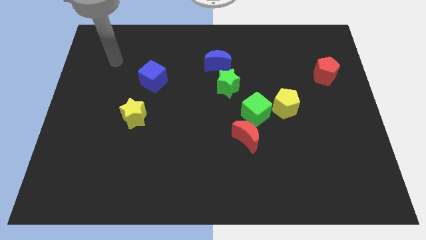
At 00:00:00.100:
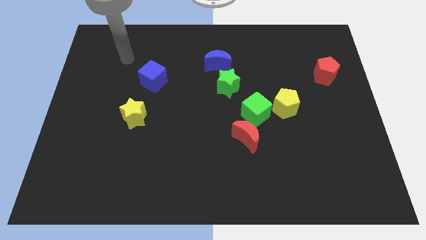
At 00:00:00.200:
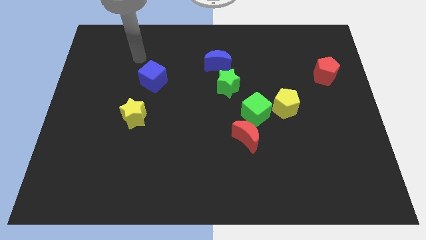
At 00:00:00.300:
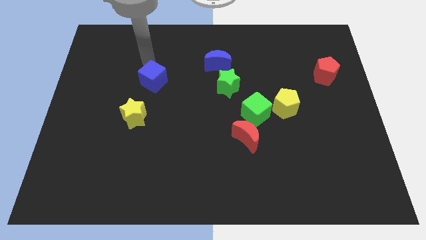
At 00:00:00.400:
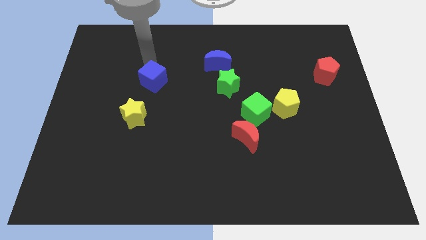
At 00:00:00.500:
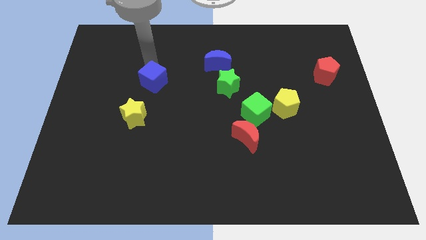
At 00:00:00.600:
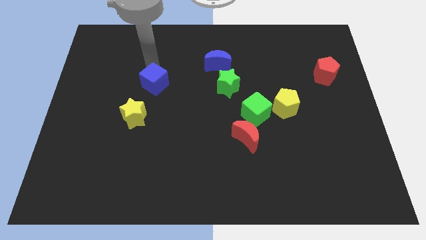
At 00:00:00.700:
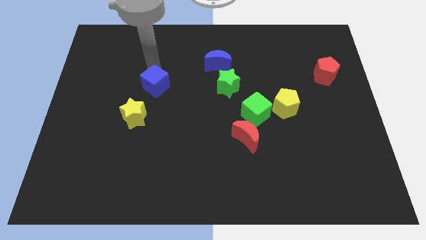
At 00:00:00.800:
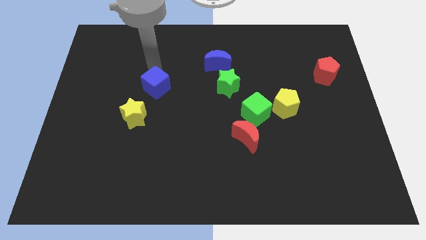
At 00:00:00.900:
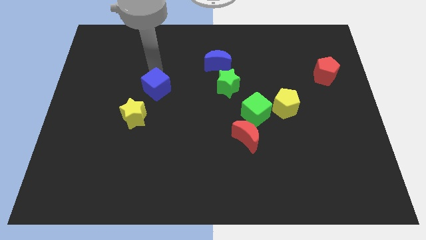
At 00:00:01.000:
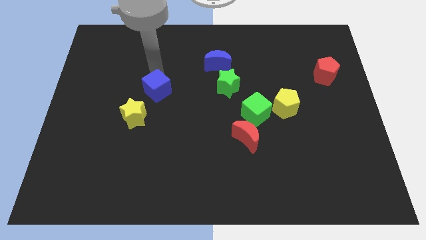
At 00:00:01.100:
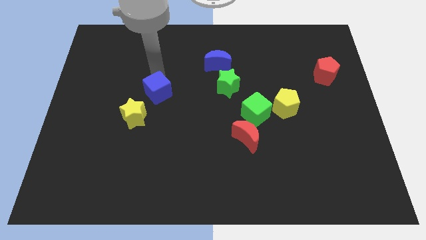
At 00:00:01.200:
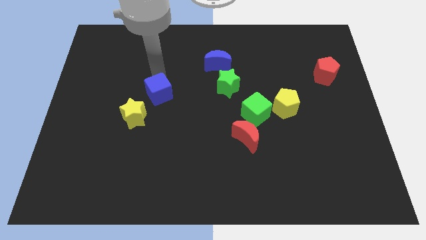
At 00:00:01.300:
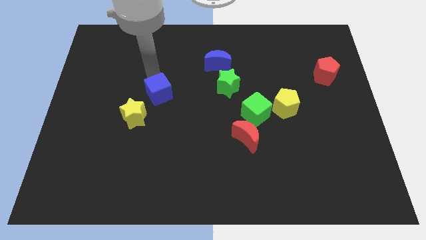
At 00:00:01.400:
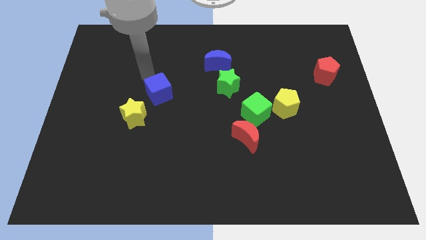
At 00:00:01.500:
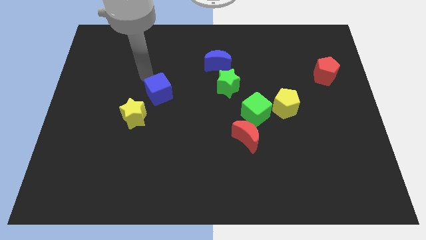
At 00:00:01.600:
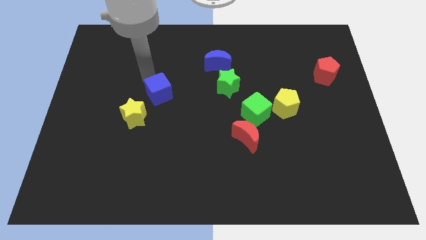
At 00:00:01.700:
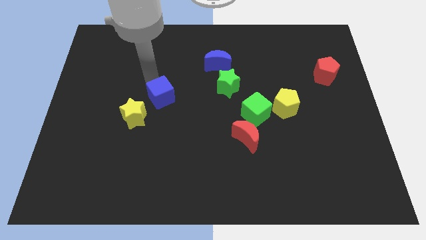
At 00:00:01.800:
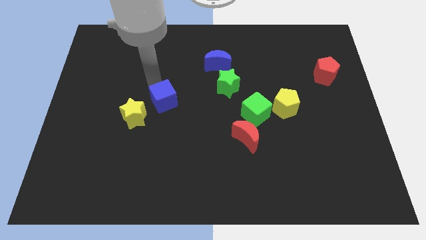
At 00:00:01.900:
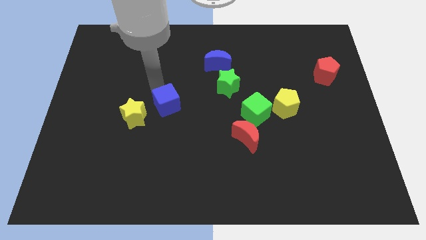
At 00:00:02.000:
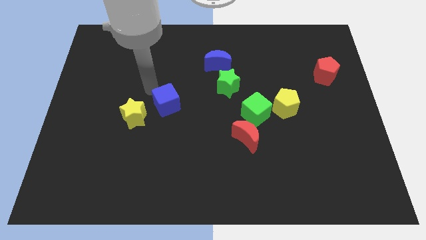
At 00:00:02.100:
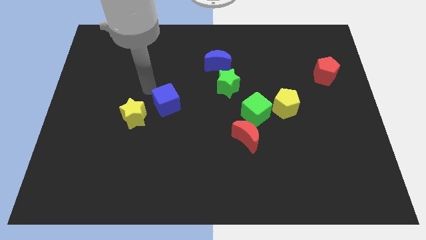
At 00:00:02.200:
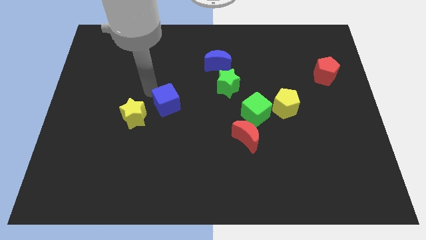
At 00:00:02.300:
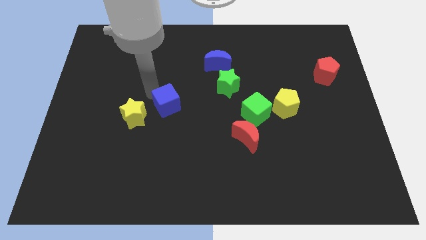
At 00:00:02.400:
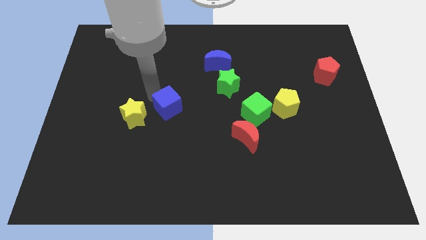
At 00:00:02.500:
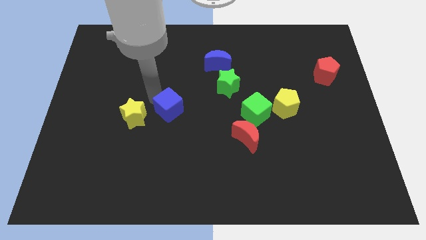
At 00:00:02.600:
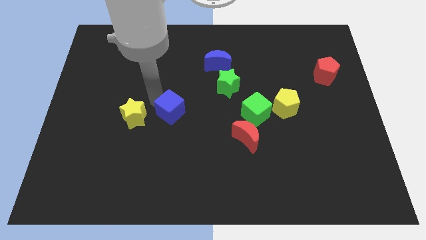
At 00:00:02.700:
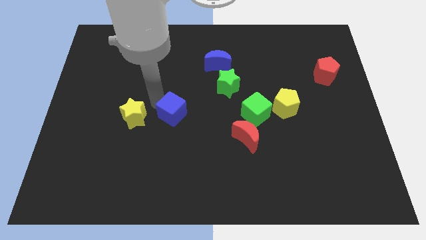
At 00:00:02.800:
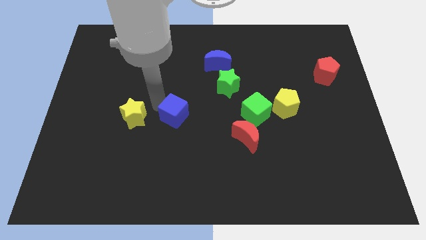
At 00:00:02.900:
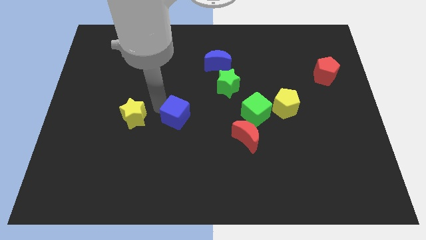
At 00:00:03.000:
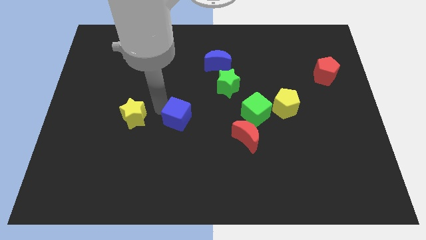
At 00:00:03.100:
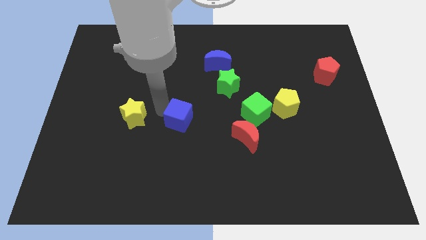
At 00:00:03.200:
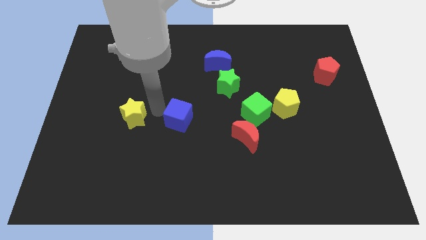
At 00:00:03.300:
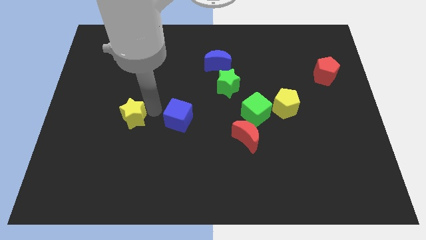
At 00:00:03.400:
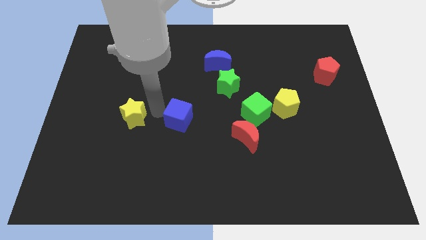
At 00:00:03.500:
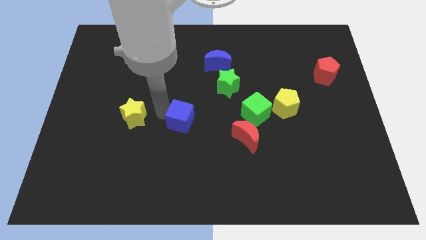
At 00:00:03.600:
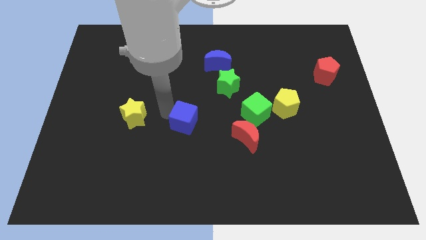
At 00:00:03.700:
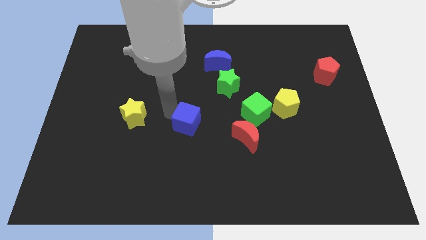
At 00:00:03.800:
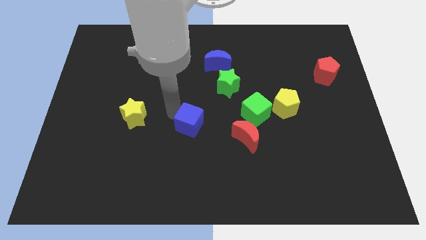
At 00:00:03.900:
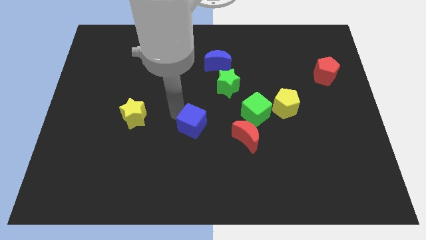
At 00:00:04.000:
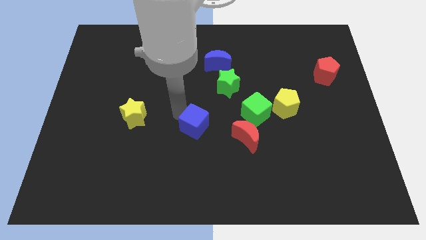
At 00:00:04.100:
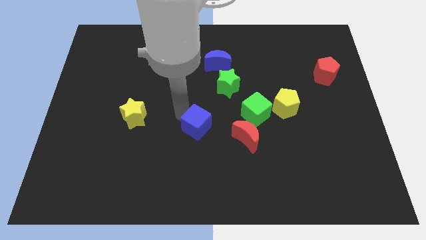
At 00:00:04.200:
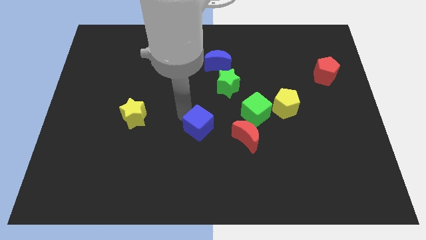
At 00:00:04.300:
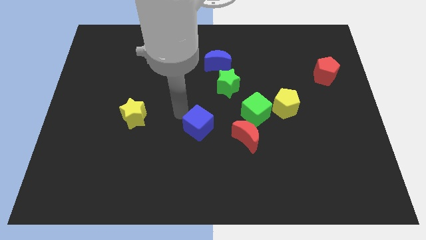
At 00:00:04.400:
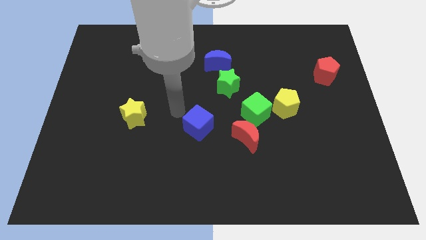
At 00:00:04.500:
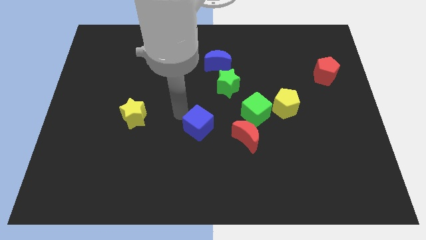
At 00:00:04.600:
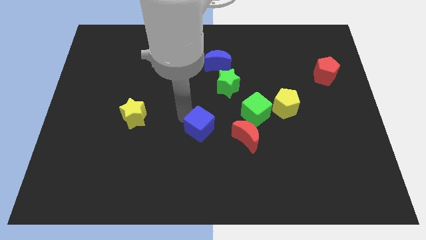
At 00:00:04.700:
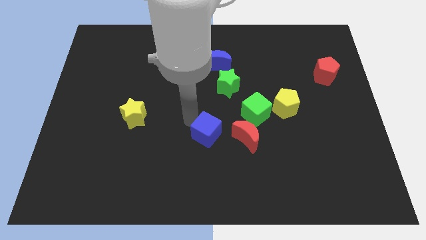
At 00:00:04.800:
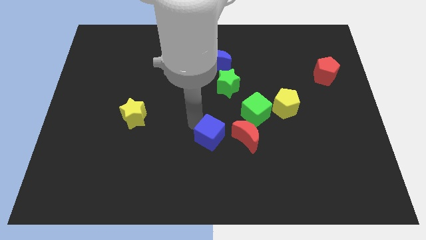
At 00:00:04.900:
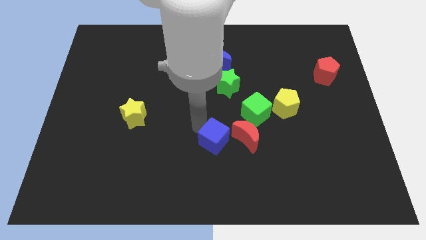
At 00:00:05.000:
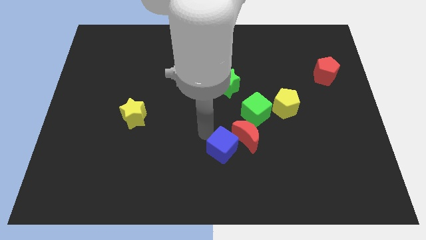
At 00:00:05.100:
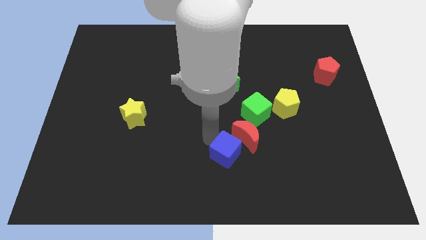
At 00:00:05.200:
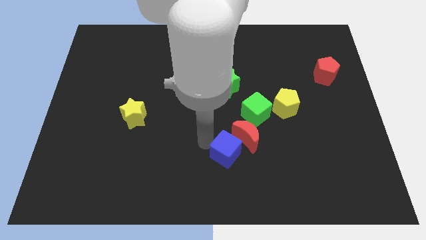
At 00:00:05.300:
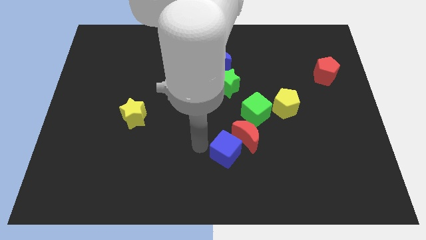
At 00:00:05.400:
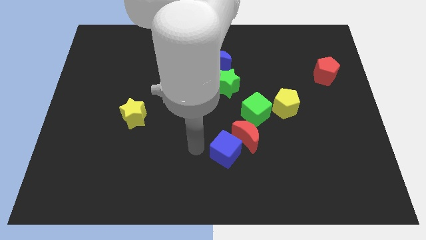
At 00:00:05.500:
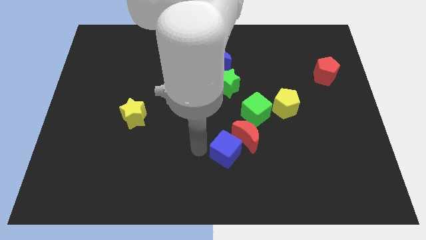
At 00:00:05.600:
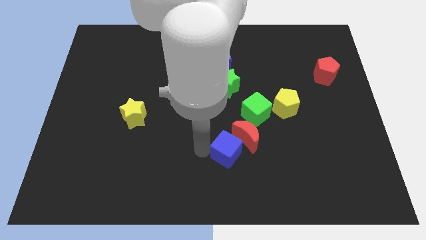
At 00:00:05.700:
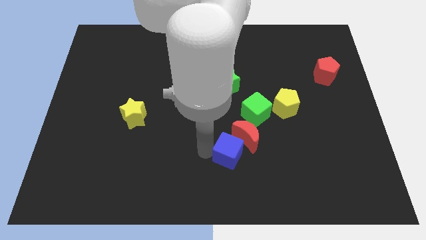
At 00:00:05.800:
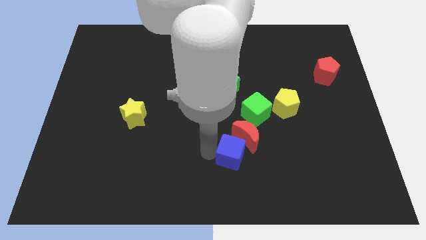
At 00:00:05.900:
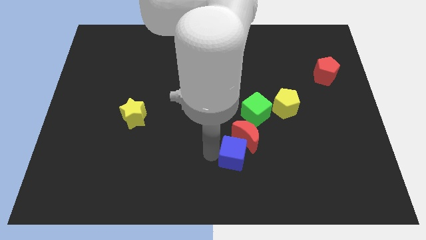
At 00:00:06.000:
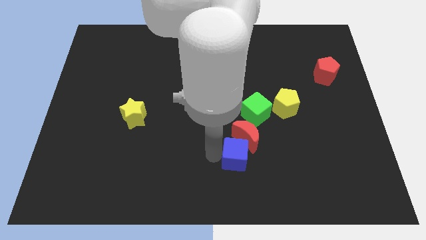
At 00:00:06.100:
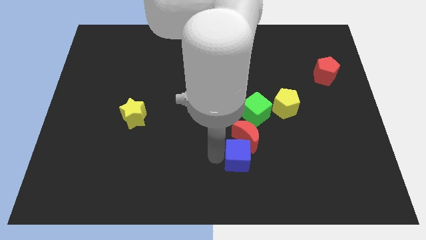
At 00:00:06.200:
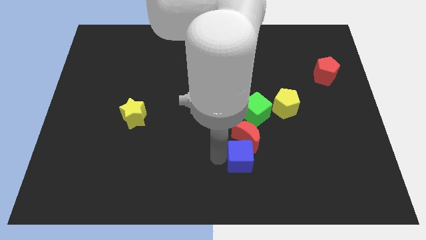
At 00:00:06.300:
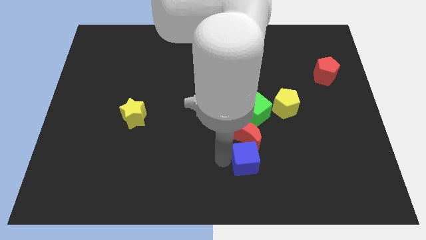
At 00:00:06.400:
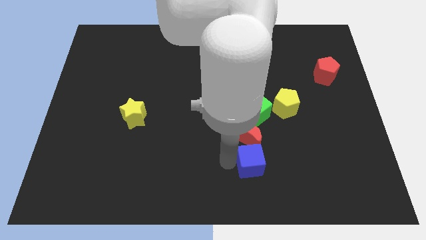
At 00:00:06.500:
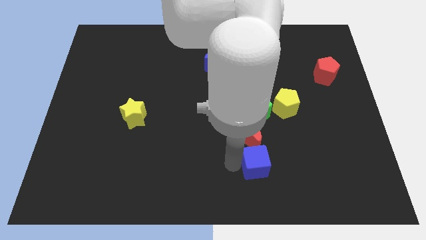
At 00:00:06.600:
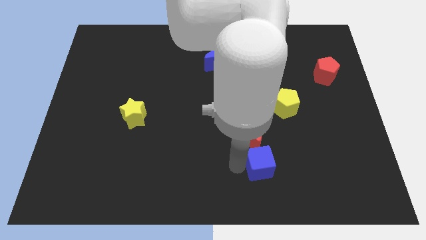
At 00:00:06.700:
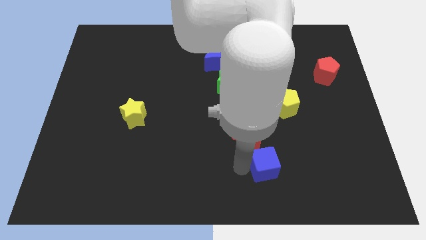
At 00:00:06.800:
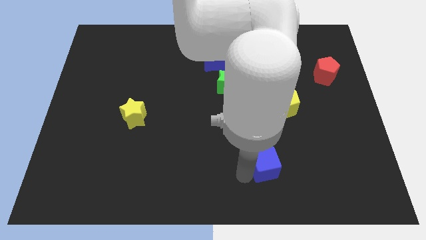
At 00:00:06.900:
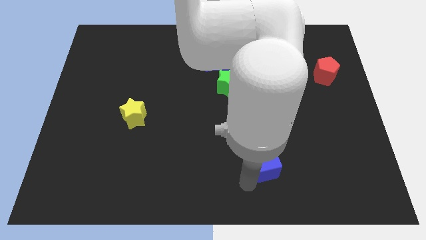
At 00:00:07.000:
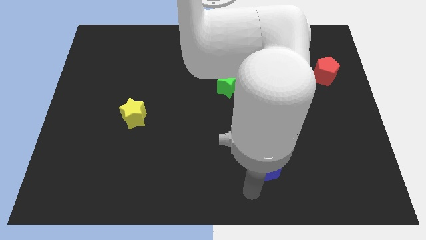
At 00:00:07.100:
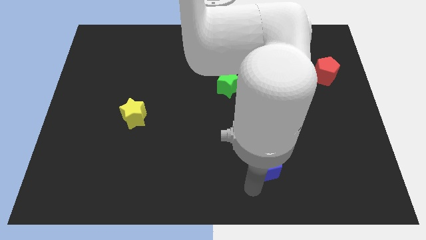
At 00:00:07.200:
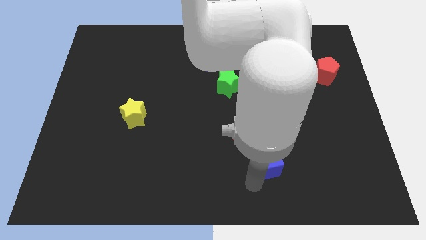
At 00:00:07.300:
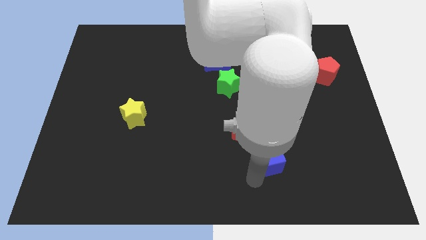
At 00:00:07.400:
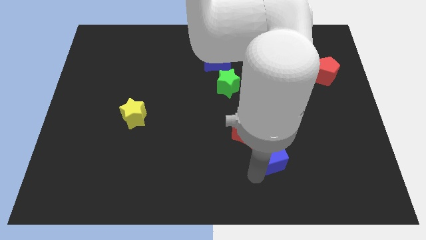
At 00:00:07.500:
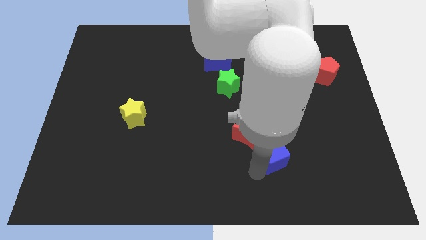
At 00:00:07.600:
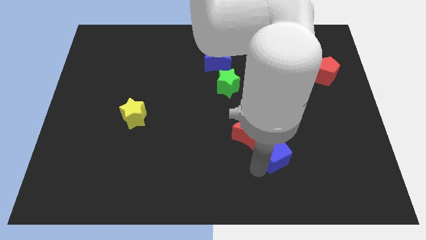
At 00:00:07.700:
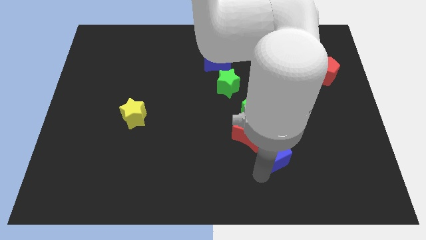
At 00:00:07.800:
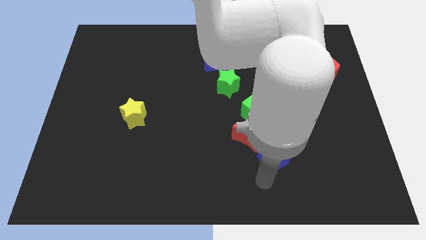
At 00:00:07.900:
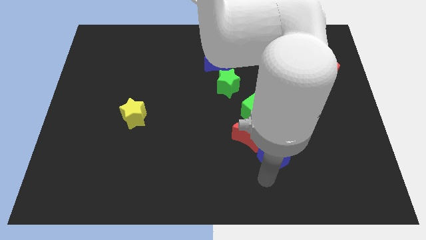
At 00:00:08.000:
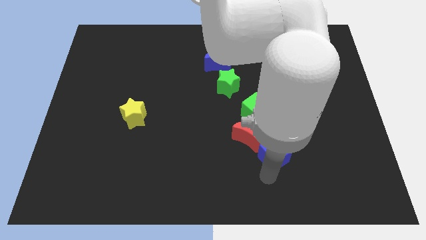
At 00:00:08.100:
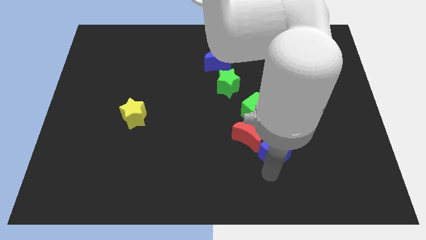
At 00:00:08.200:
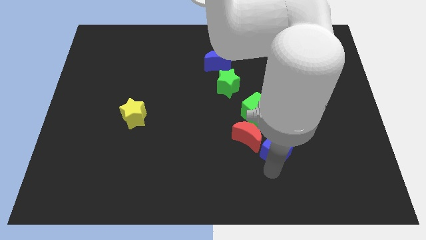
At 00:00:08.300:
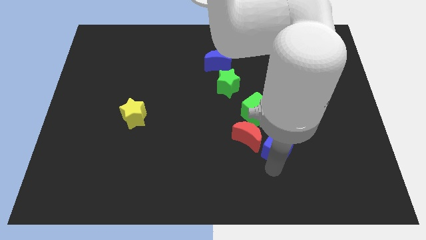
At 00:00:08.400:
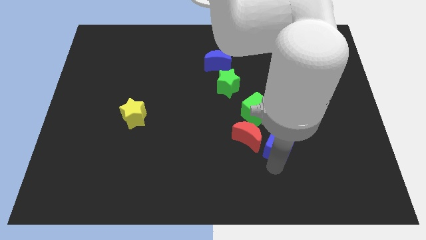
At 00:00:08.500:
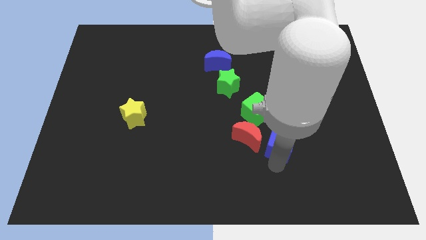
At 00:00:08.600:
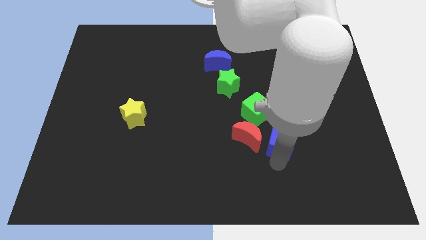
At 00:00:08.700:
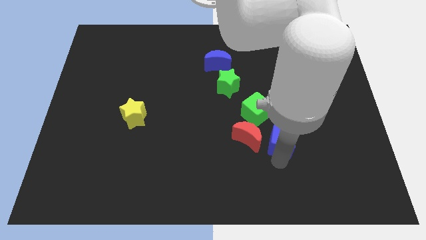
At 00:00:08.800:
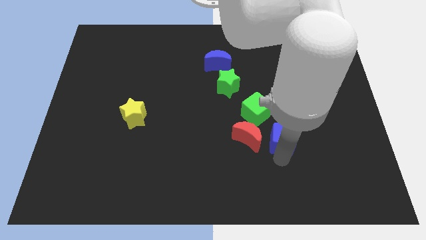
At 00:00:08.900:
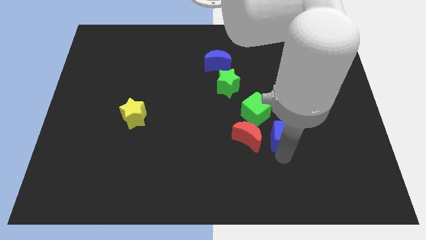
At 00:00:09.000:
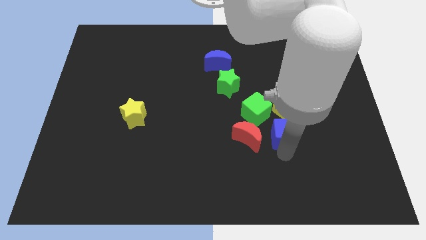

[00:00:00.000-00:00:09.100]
slide the blue cube diagonally down and to the left of the yellow pentagon
